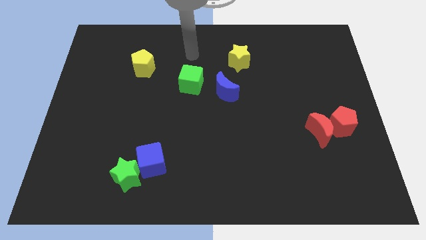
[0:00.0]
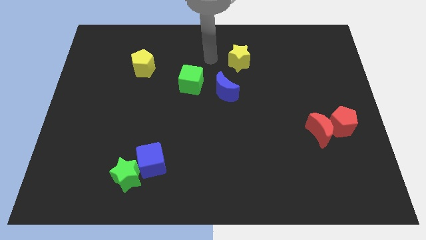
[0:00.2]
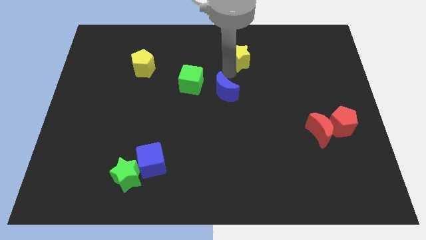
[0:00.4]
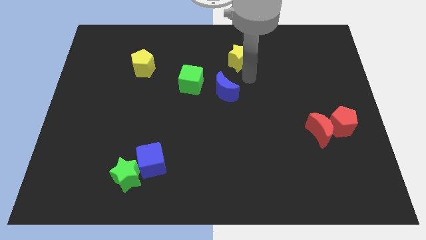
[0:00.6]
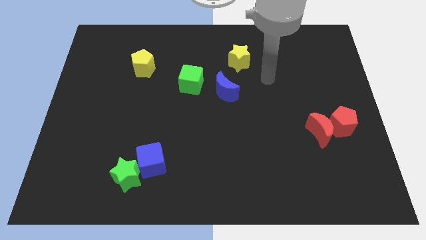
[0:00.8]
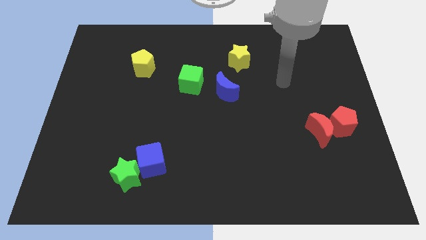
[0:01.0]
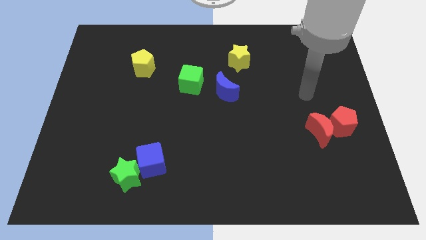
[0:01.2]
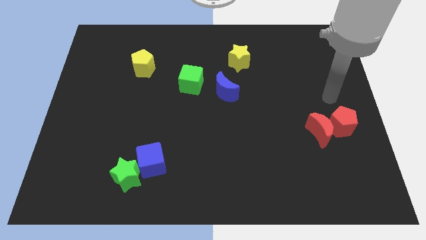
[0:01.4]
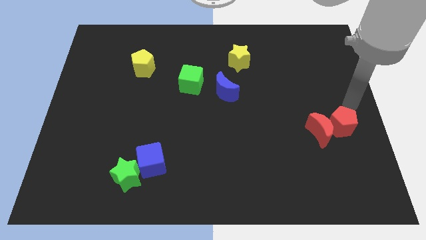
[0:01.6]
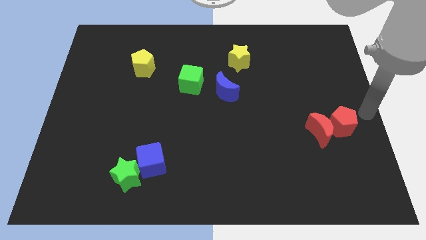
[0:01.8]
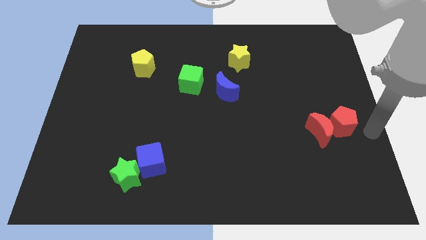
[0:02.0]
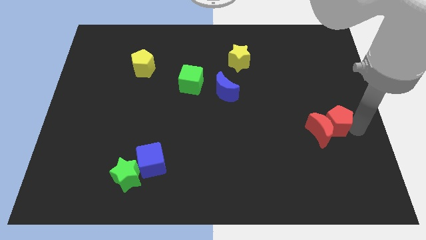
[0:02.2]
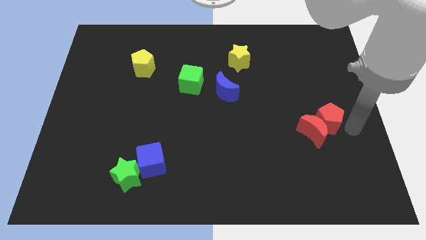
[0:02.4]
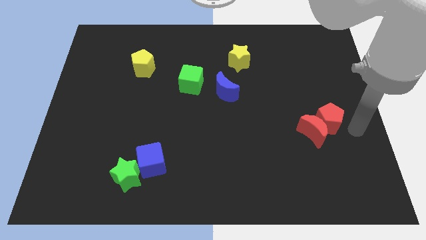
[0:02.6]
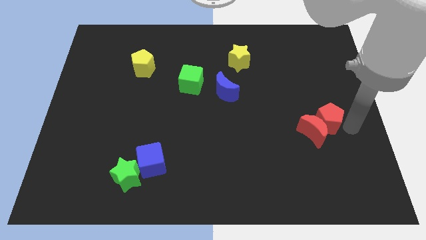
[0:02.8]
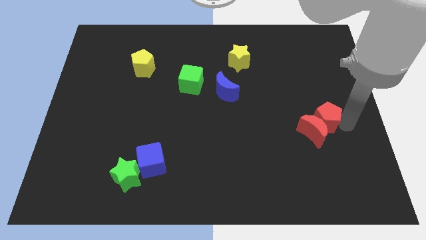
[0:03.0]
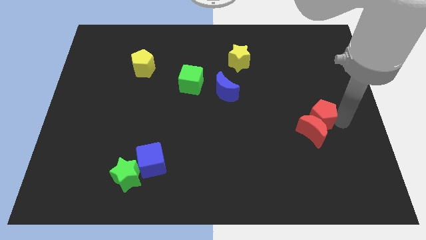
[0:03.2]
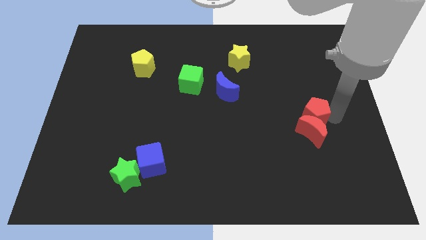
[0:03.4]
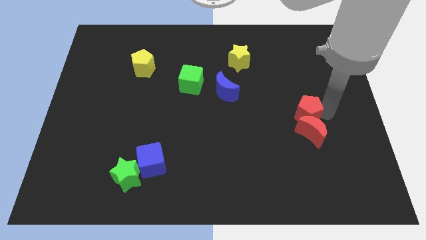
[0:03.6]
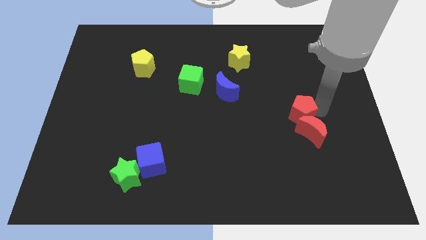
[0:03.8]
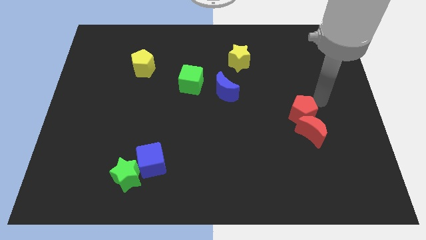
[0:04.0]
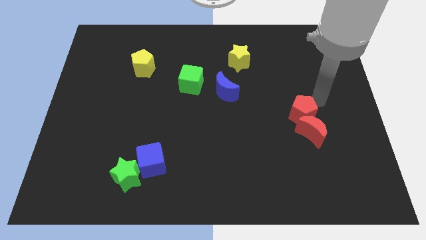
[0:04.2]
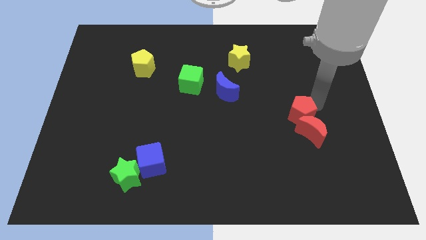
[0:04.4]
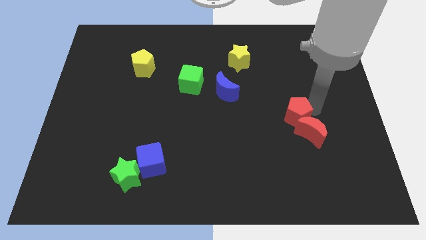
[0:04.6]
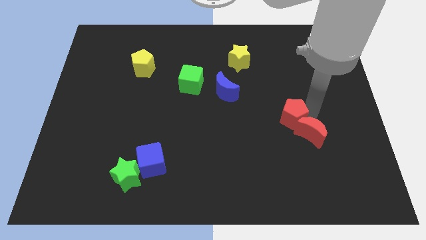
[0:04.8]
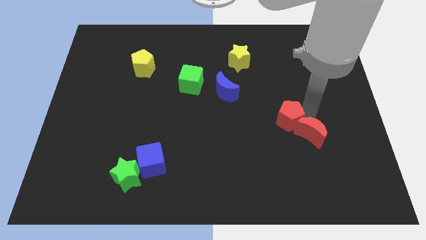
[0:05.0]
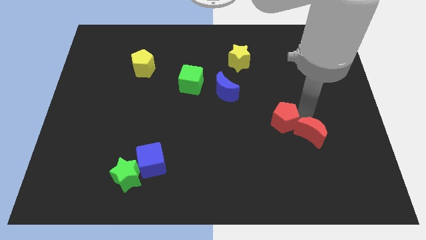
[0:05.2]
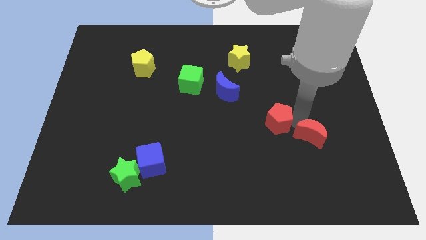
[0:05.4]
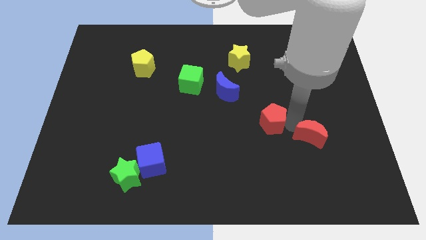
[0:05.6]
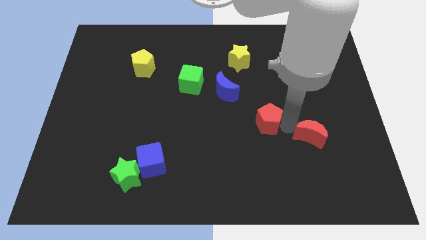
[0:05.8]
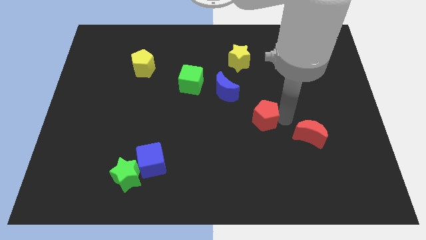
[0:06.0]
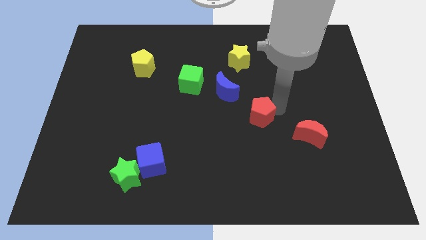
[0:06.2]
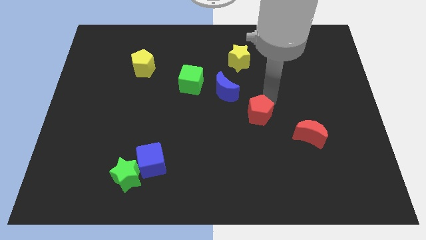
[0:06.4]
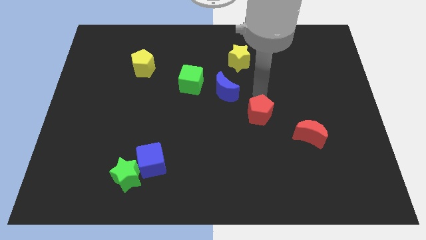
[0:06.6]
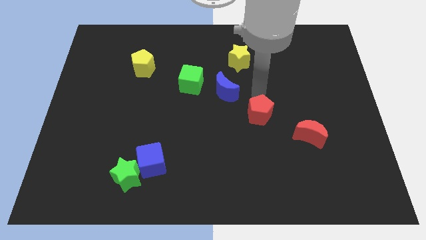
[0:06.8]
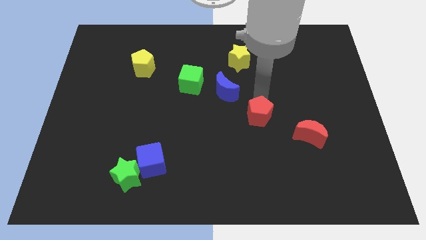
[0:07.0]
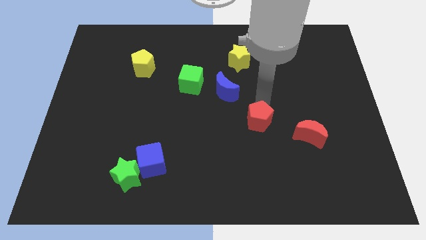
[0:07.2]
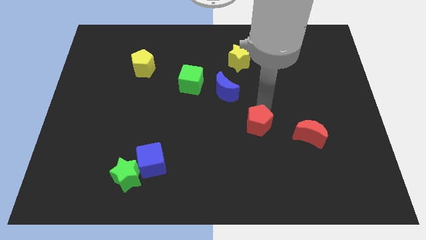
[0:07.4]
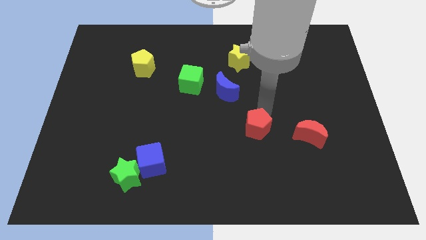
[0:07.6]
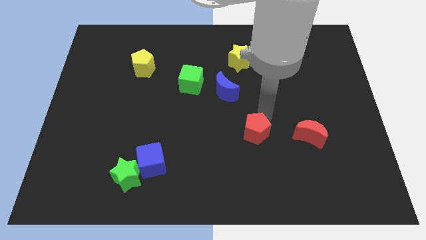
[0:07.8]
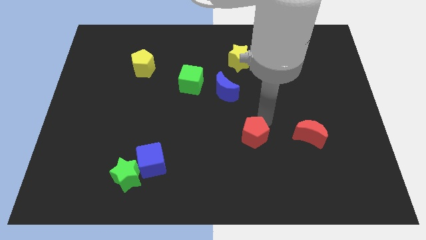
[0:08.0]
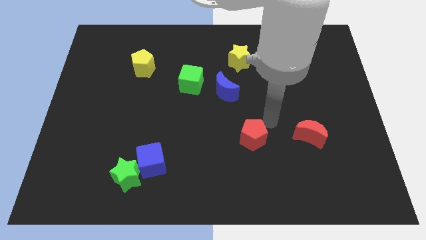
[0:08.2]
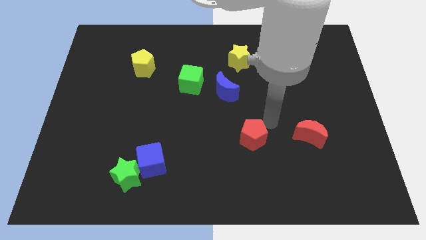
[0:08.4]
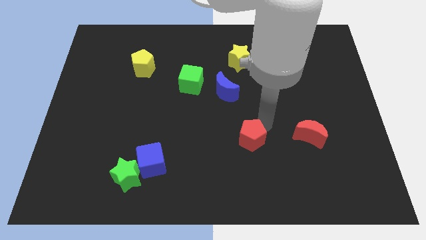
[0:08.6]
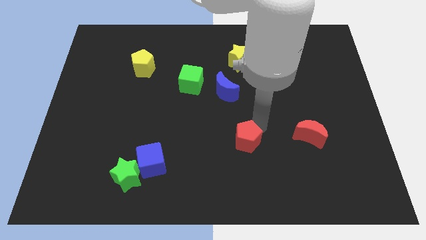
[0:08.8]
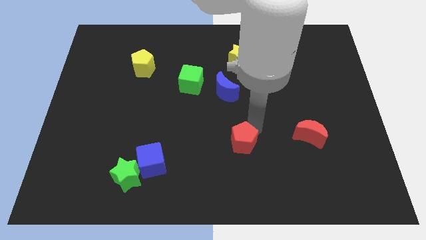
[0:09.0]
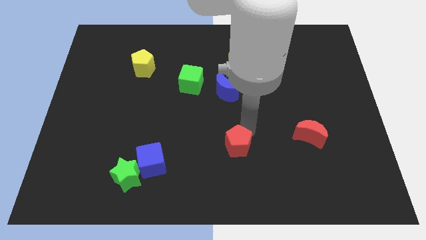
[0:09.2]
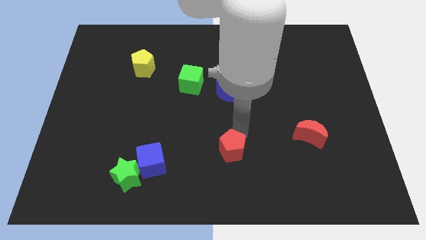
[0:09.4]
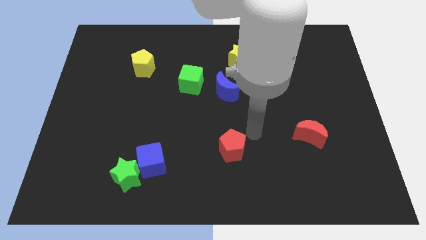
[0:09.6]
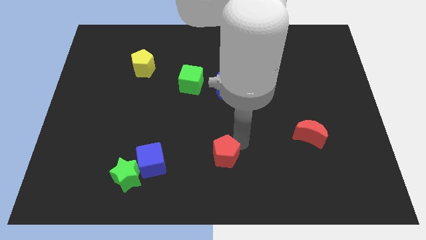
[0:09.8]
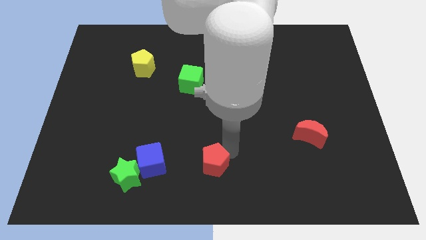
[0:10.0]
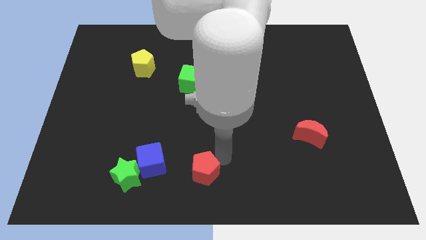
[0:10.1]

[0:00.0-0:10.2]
put the red pentagon just right of the green star

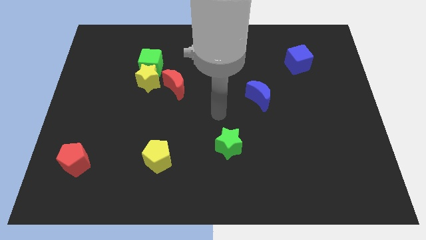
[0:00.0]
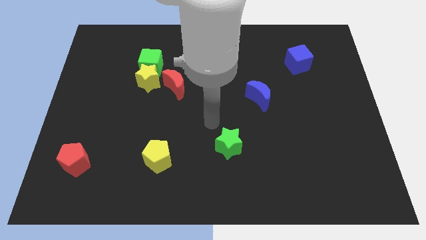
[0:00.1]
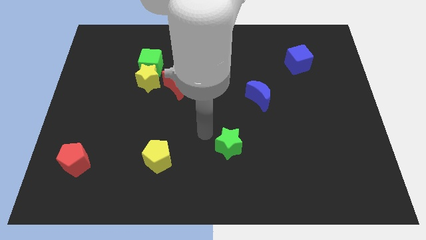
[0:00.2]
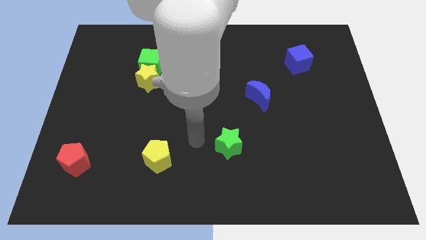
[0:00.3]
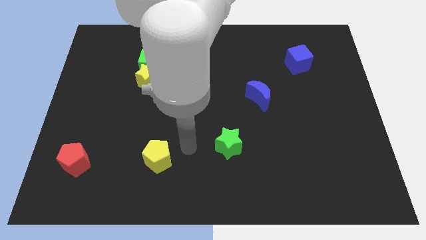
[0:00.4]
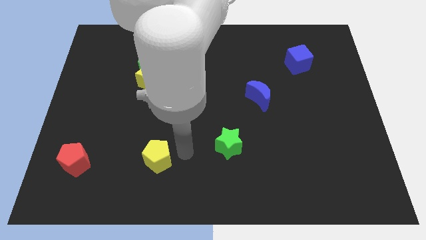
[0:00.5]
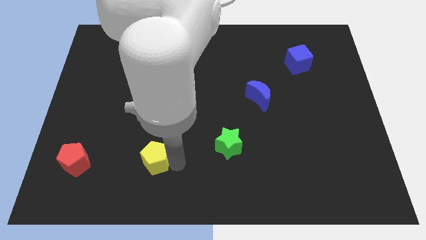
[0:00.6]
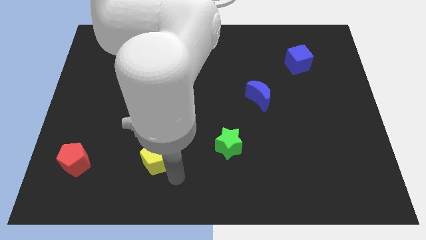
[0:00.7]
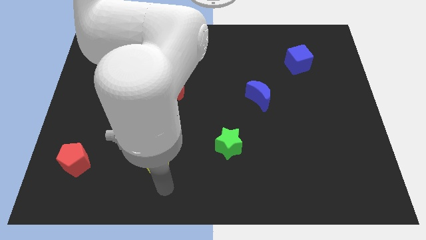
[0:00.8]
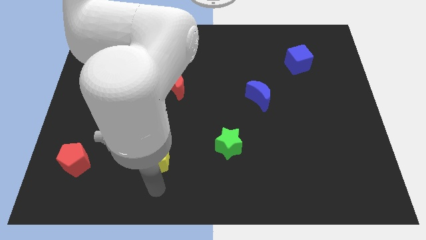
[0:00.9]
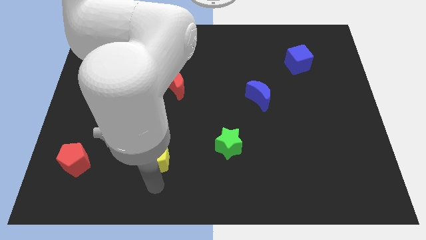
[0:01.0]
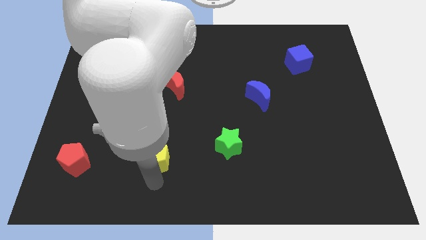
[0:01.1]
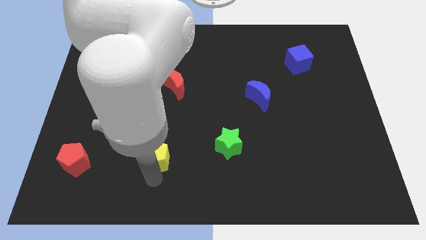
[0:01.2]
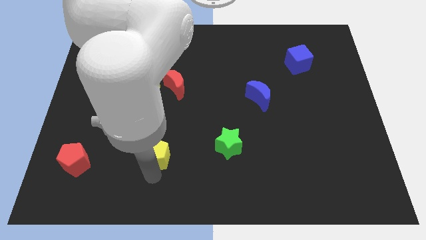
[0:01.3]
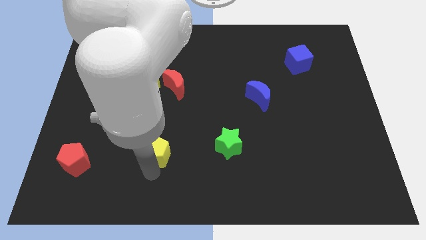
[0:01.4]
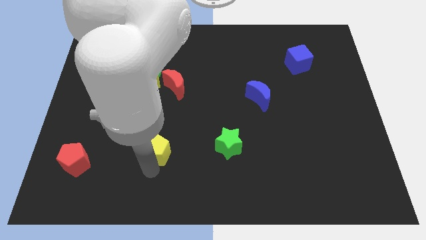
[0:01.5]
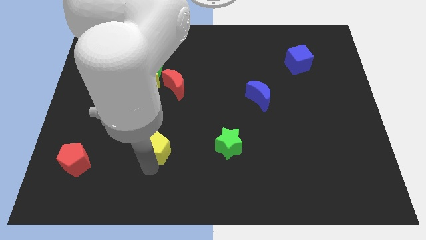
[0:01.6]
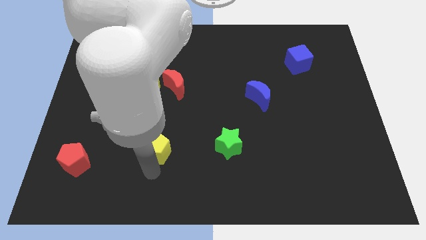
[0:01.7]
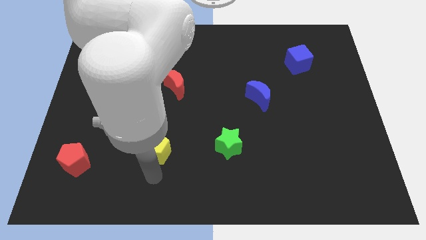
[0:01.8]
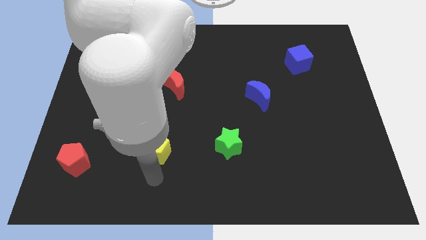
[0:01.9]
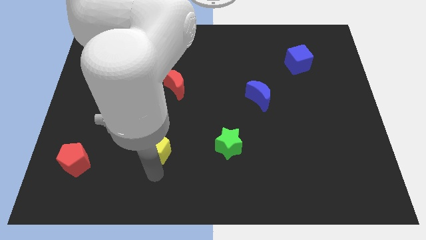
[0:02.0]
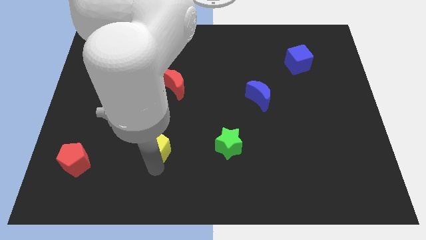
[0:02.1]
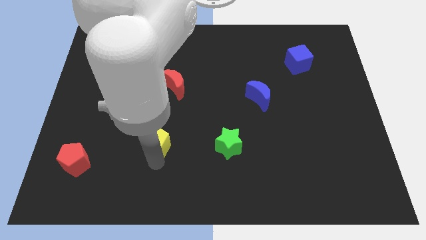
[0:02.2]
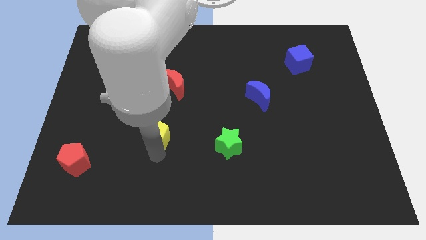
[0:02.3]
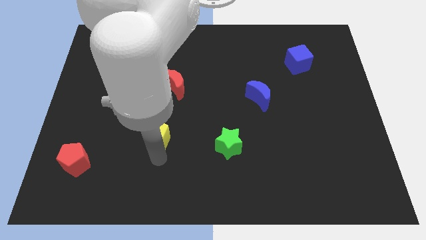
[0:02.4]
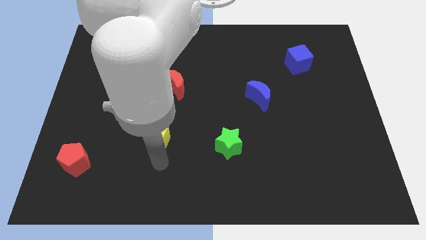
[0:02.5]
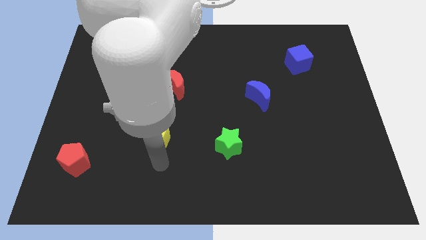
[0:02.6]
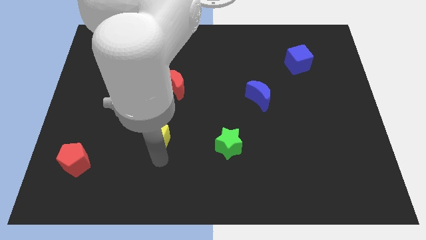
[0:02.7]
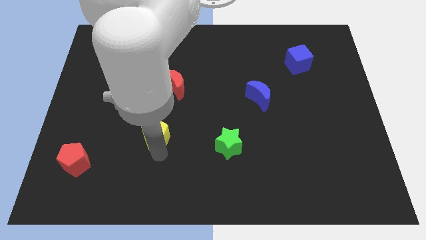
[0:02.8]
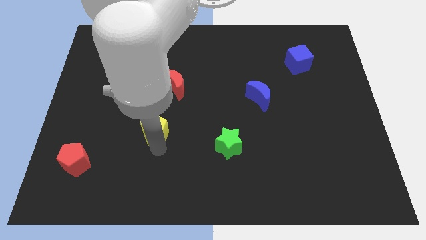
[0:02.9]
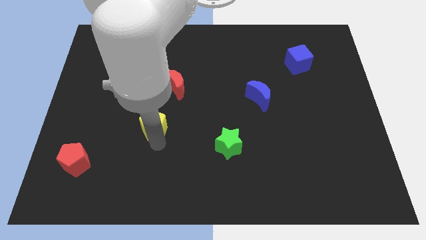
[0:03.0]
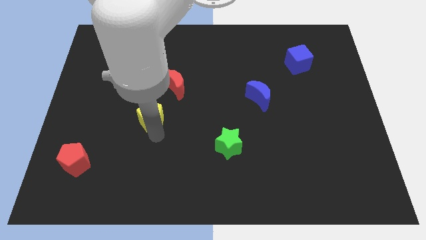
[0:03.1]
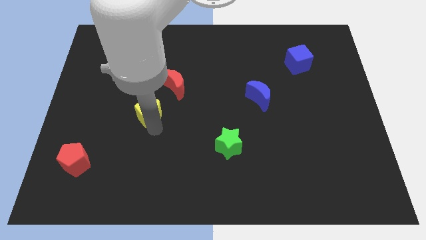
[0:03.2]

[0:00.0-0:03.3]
push the yellow pentagon below the green cube
